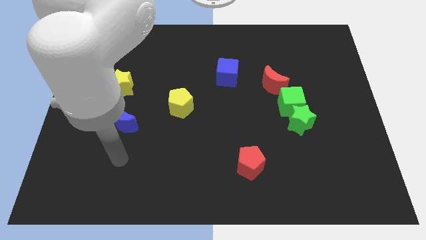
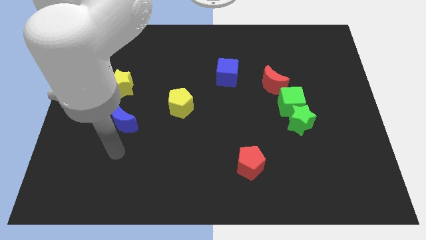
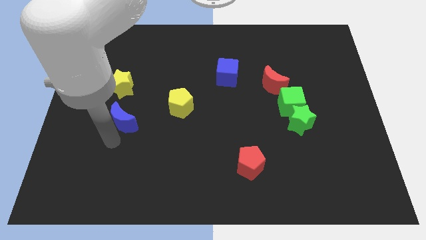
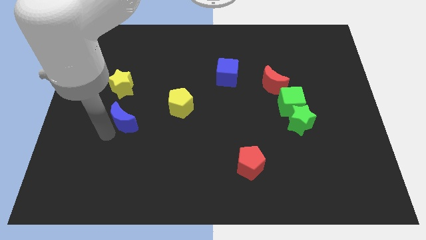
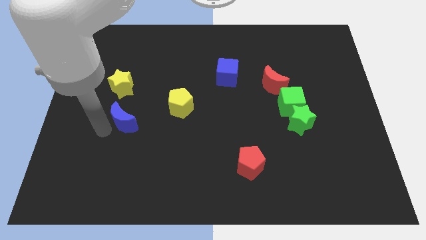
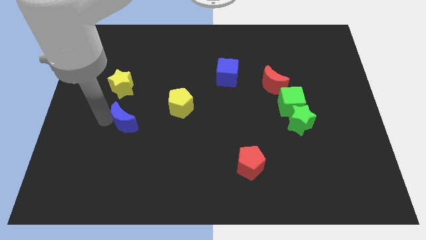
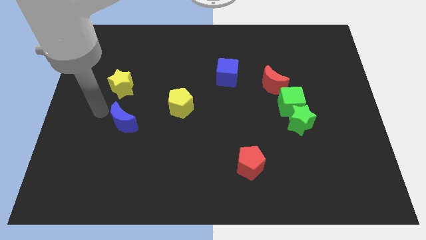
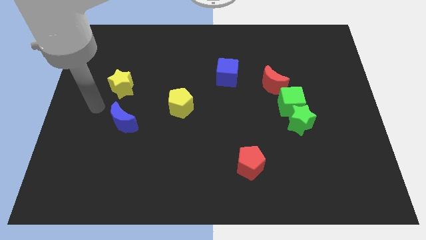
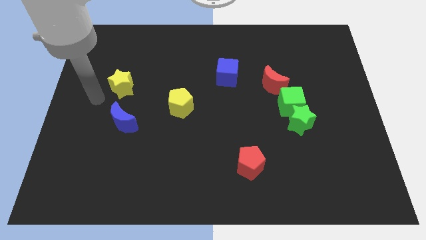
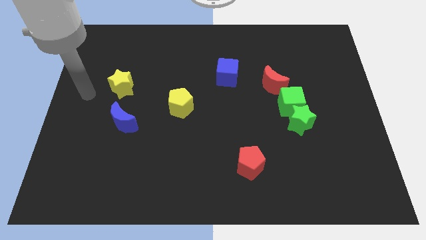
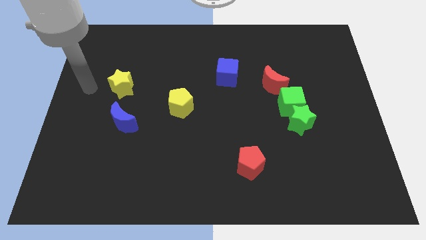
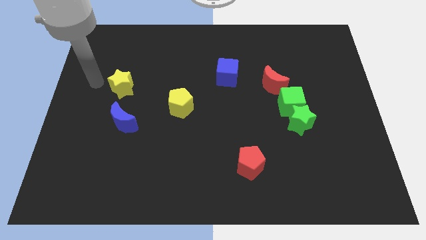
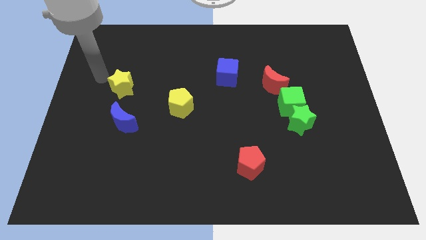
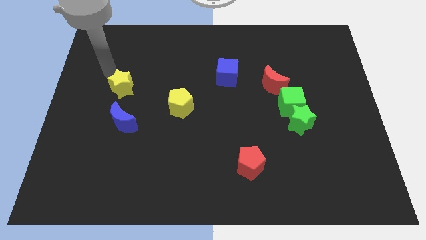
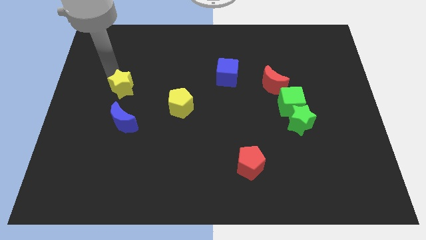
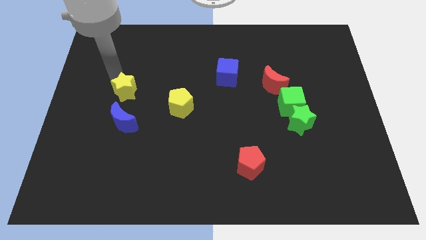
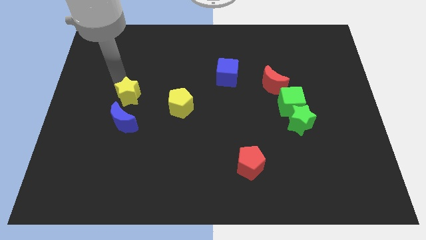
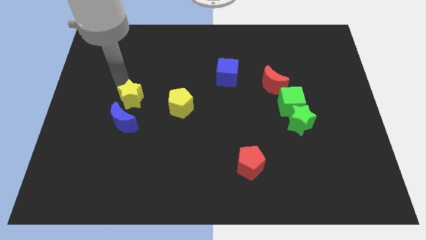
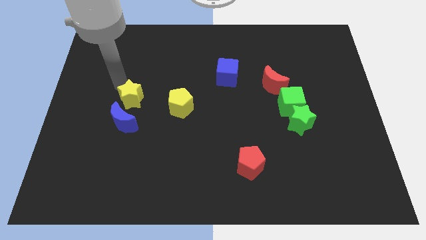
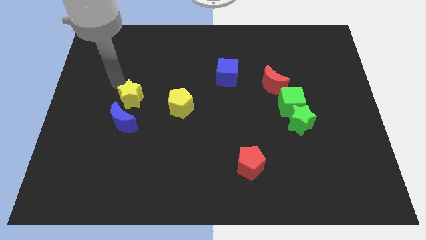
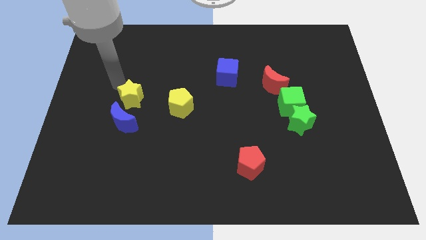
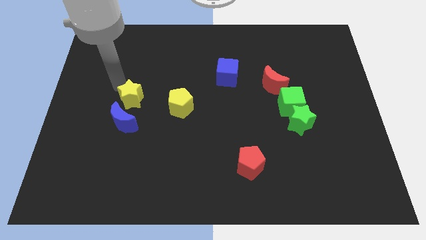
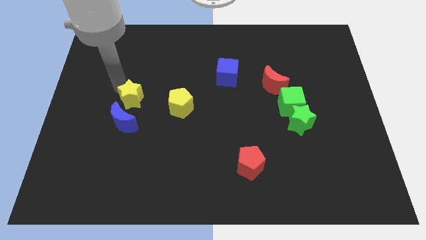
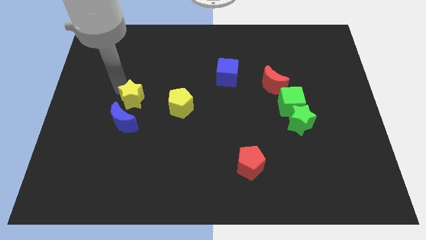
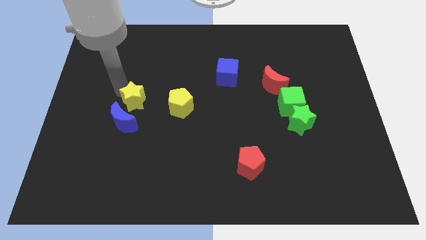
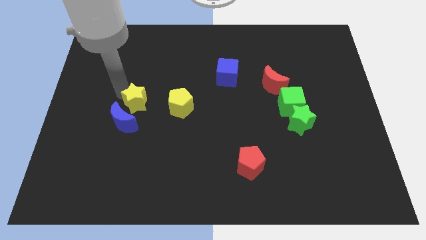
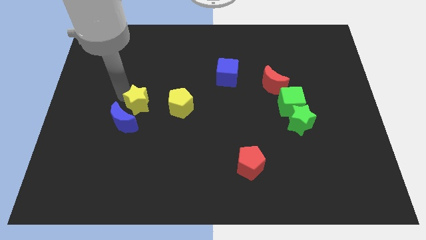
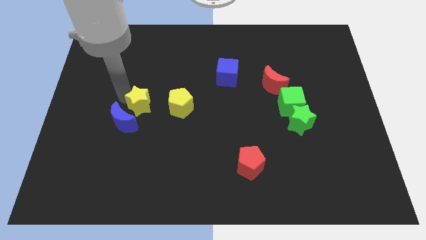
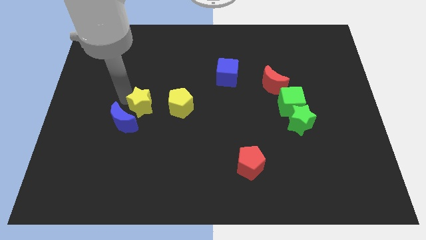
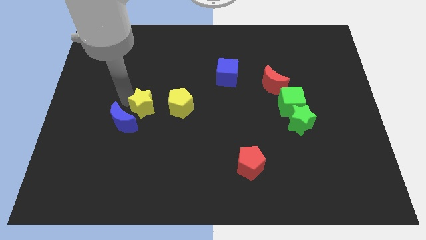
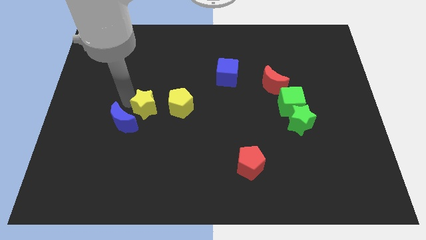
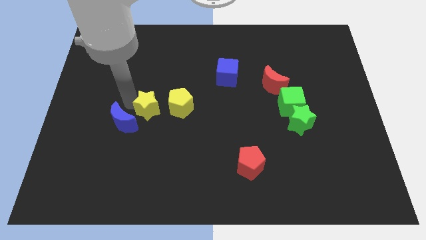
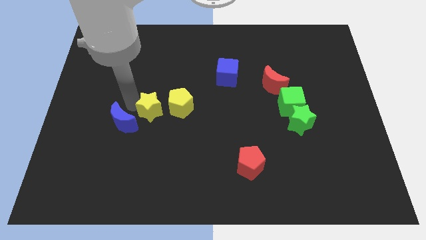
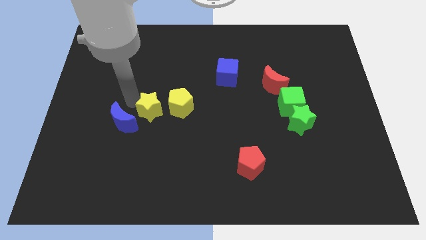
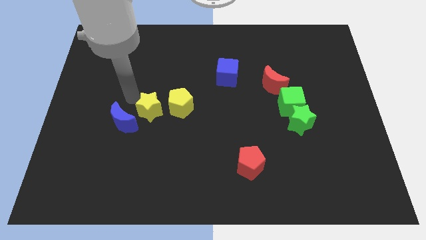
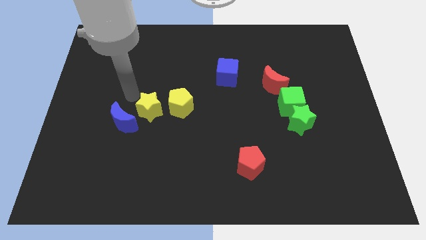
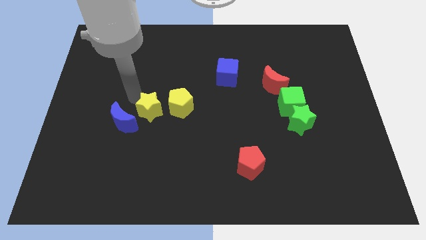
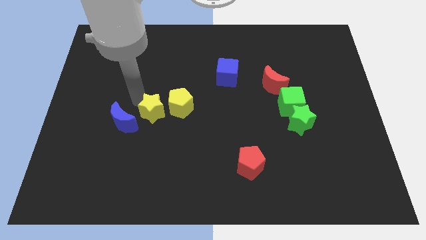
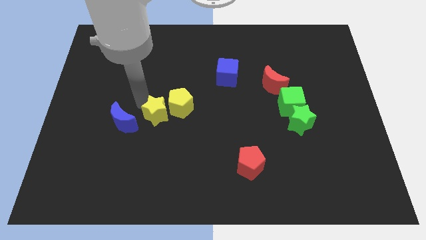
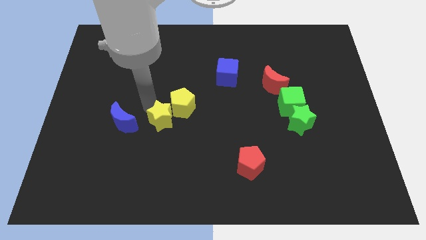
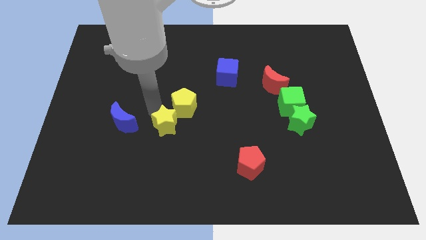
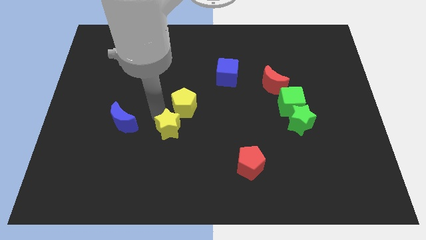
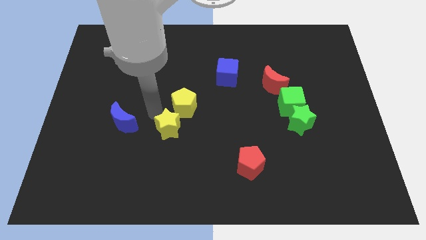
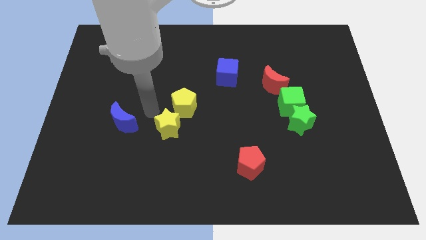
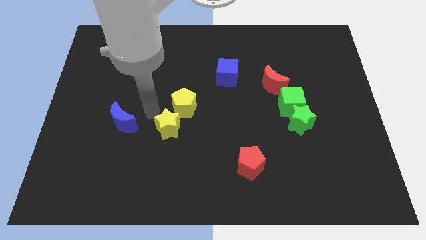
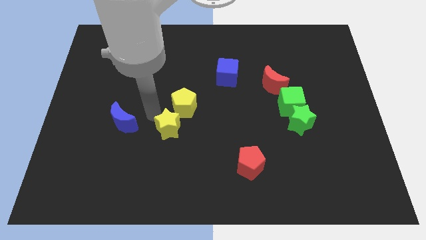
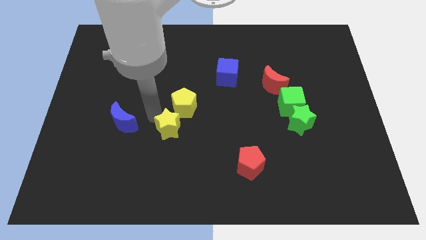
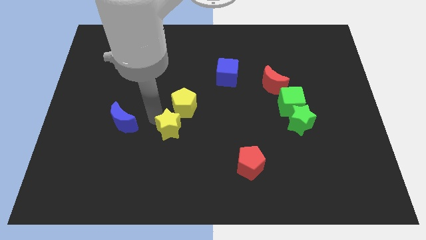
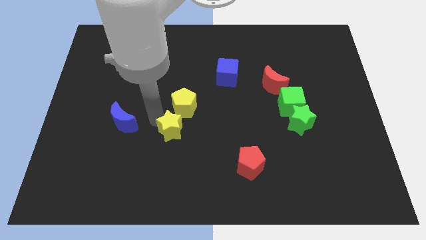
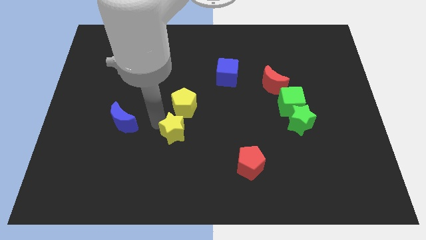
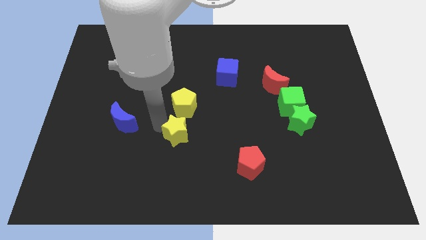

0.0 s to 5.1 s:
push the yellow star diagonally downwards and right

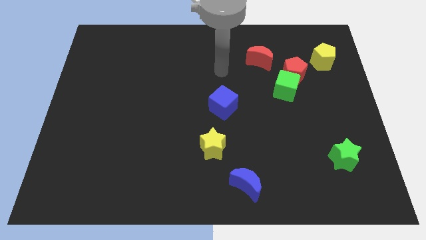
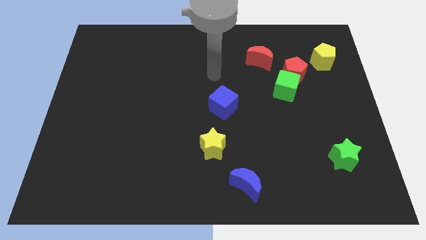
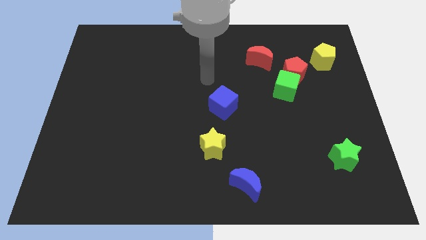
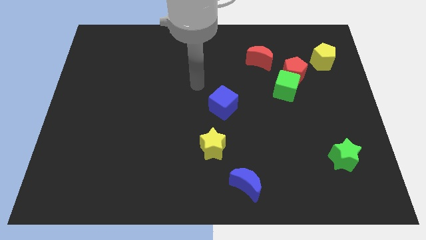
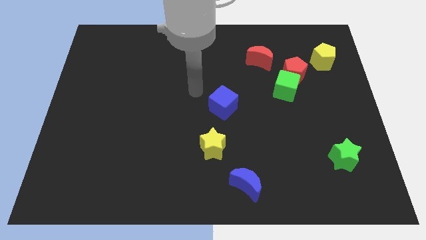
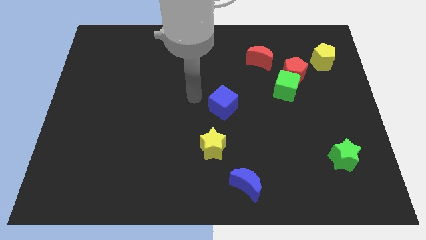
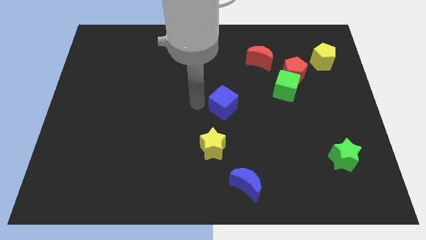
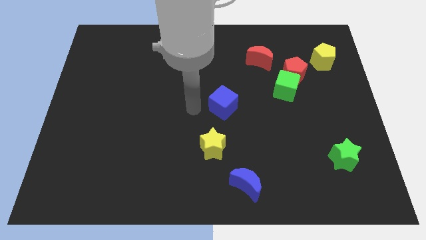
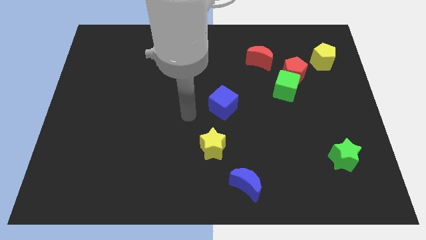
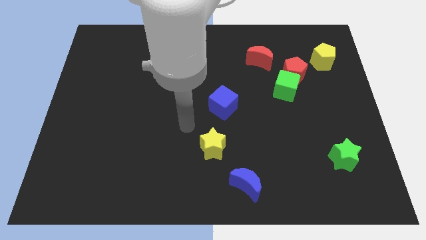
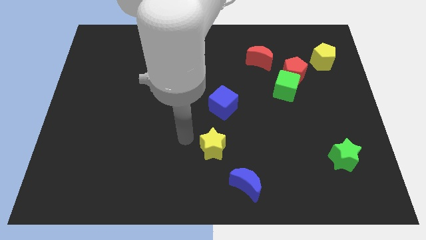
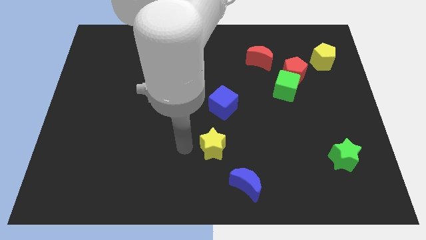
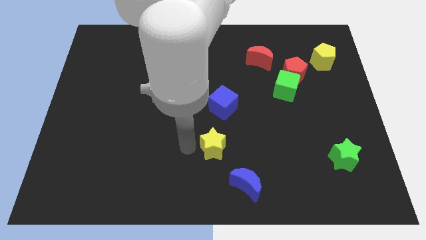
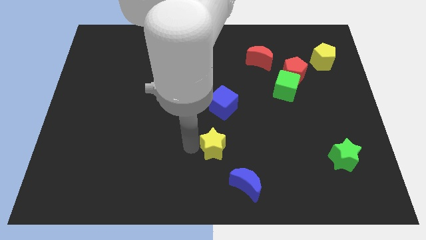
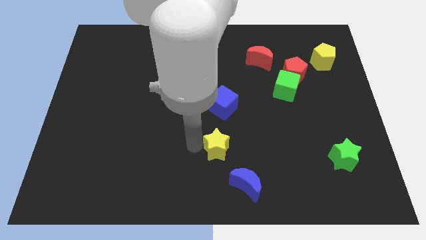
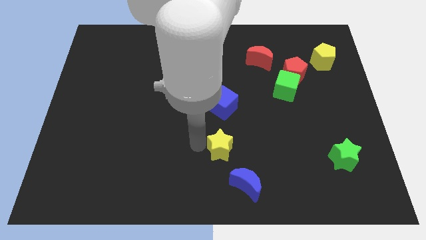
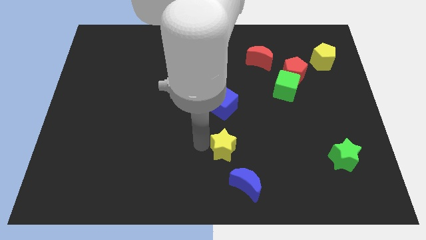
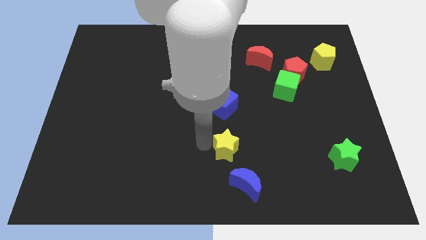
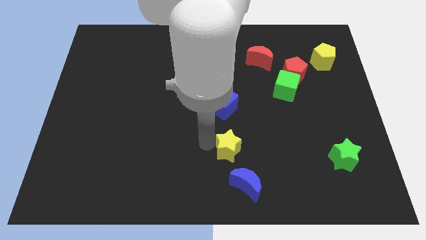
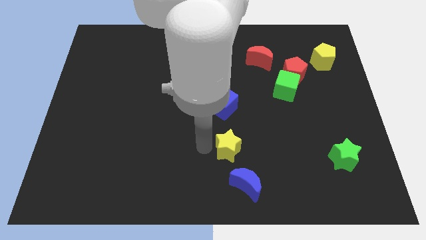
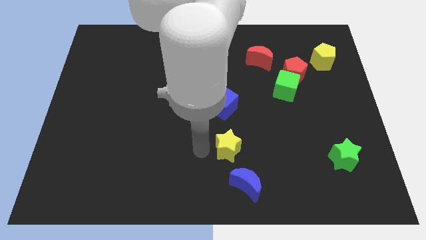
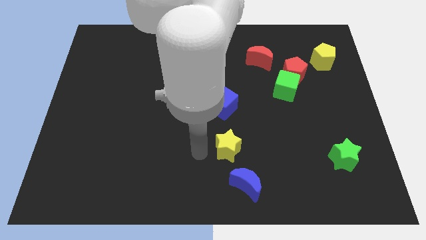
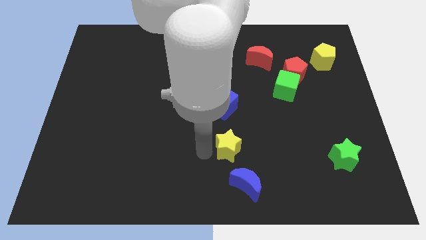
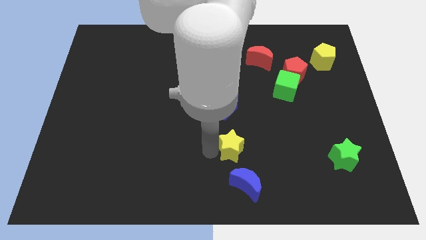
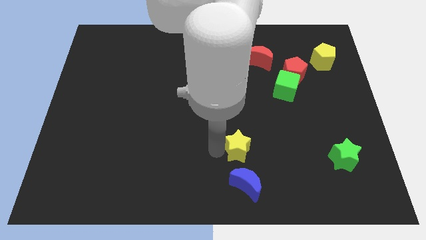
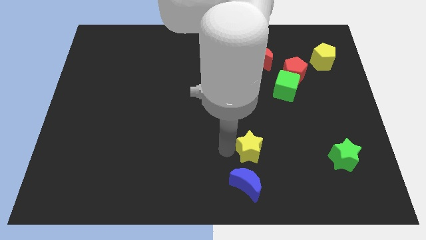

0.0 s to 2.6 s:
slightly push the yellow star right

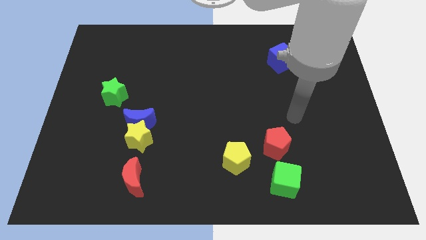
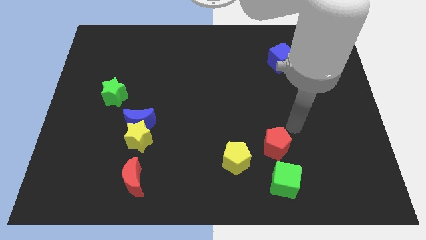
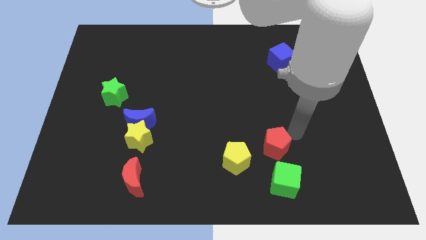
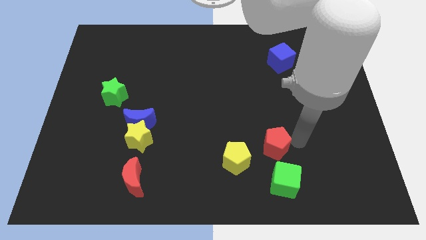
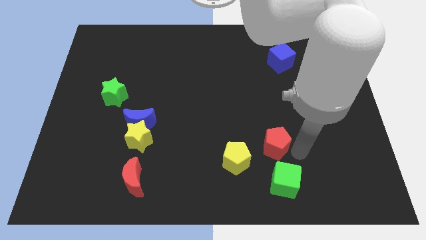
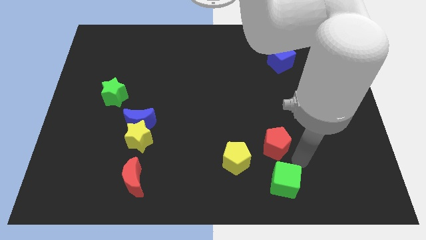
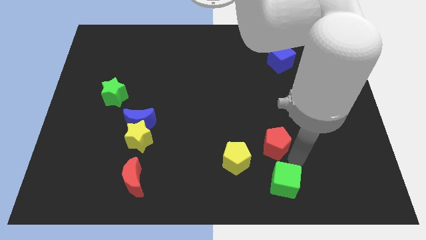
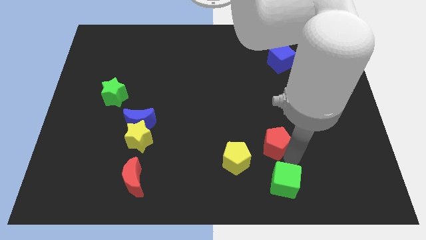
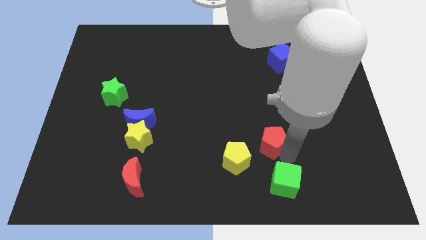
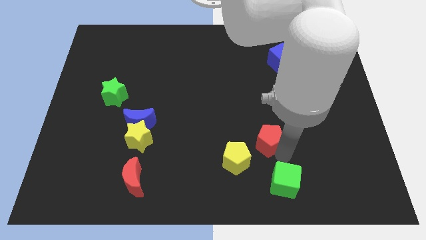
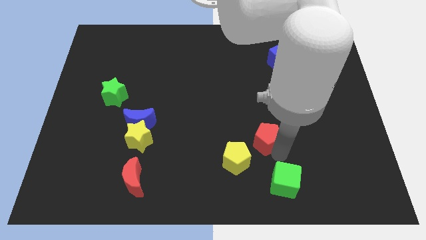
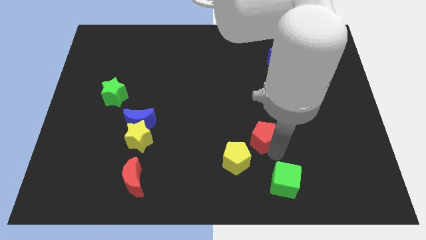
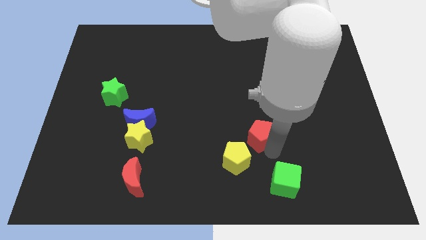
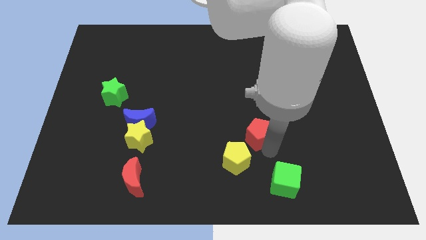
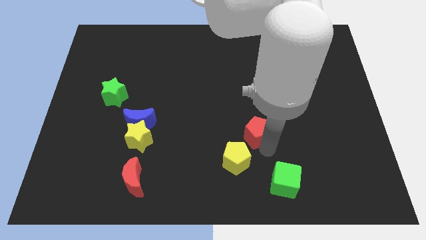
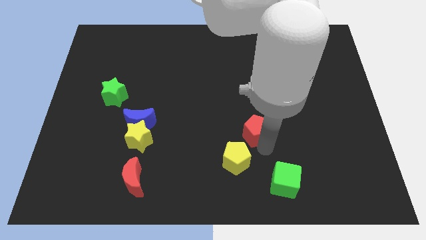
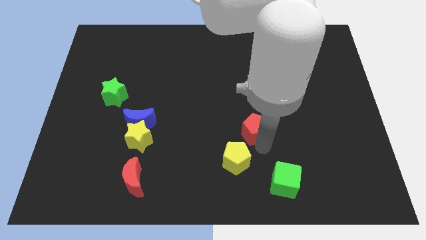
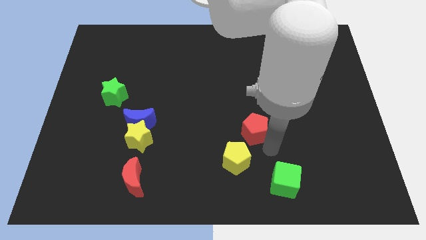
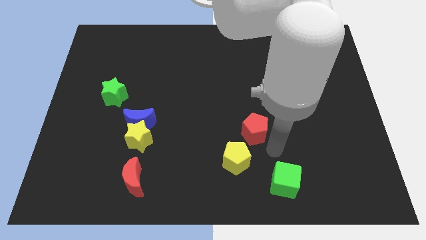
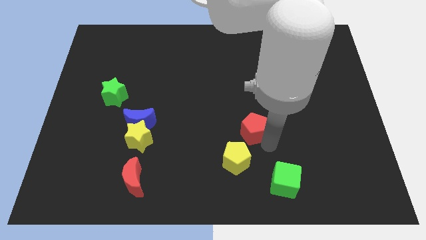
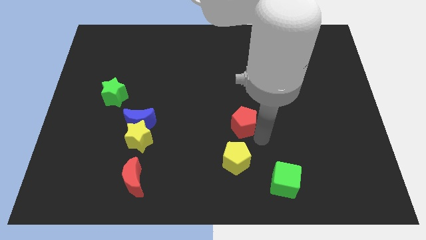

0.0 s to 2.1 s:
slightly move the red pentagon upwards and left diagonally
